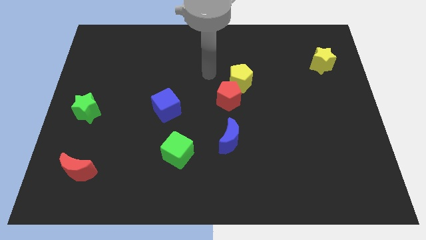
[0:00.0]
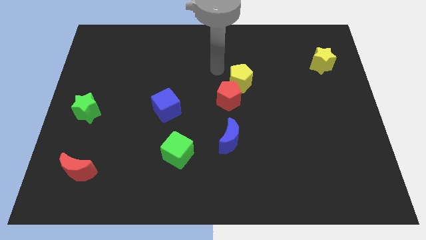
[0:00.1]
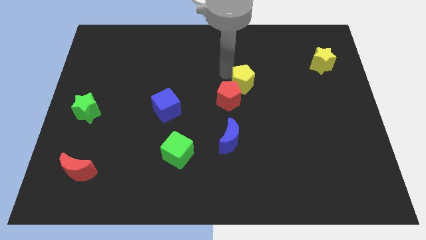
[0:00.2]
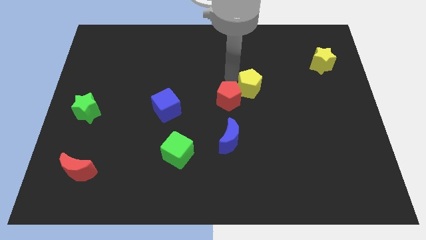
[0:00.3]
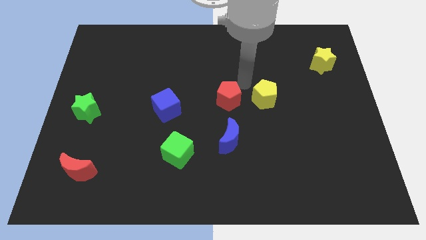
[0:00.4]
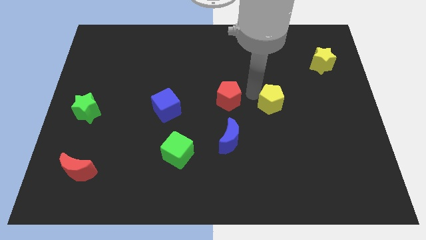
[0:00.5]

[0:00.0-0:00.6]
separate the red pentagon from the yellow pentagon

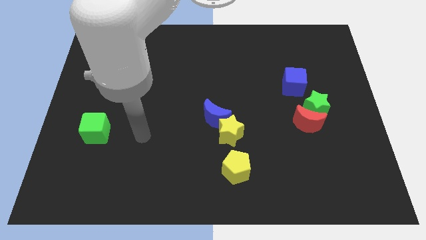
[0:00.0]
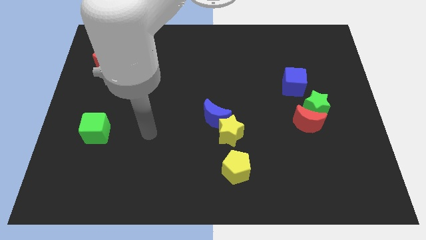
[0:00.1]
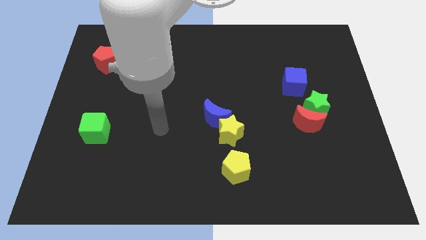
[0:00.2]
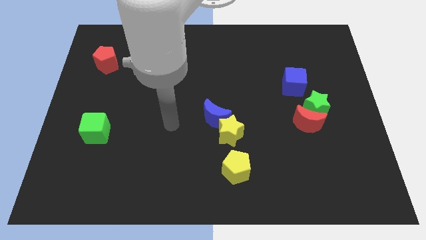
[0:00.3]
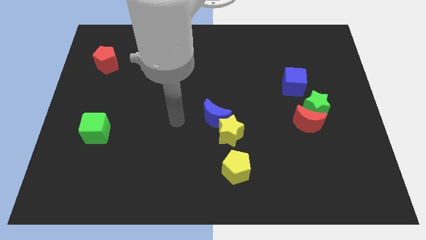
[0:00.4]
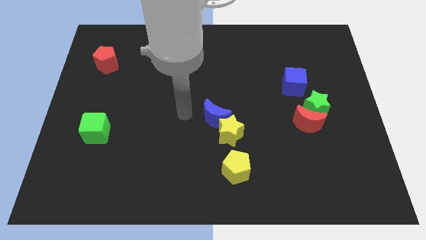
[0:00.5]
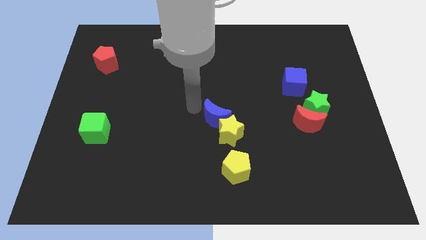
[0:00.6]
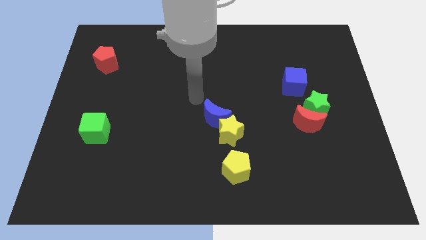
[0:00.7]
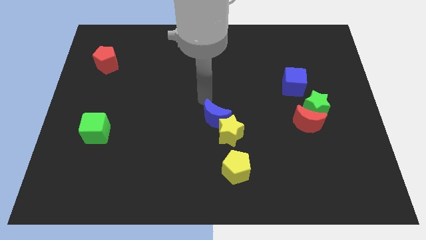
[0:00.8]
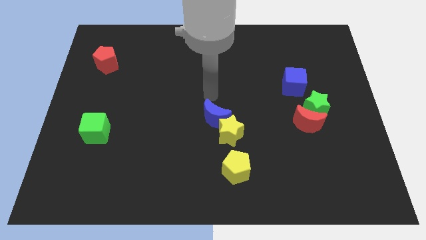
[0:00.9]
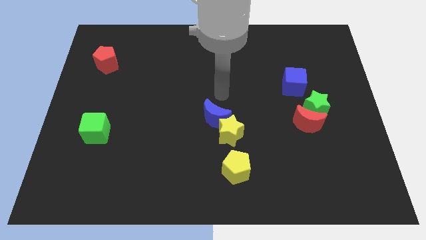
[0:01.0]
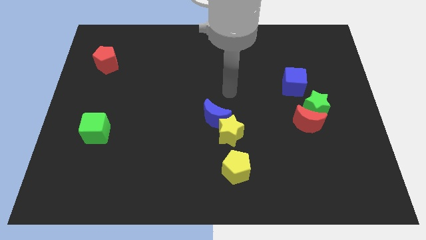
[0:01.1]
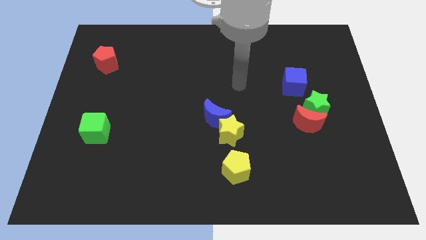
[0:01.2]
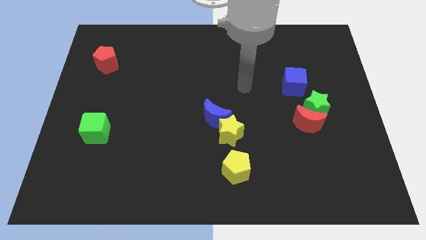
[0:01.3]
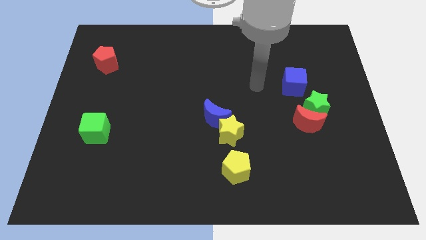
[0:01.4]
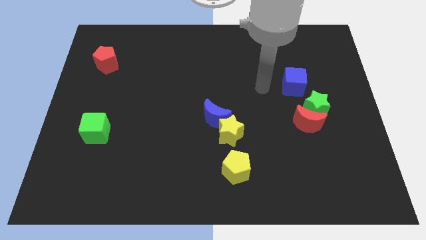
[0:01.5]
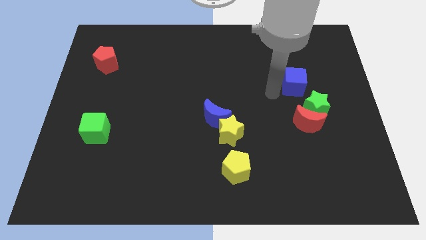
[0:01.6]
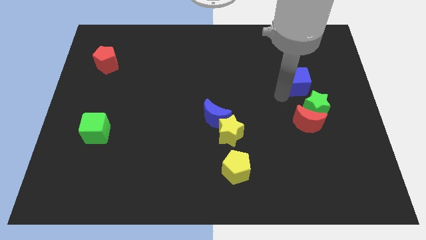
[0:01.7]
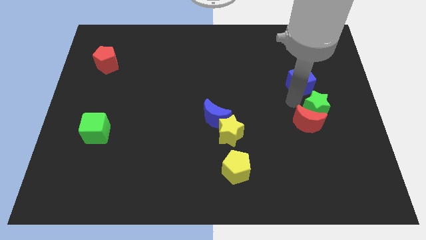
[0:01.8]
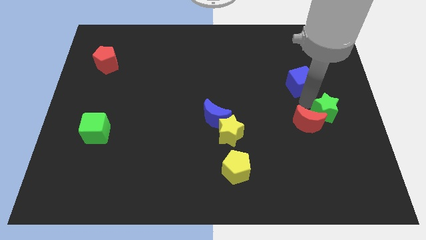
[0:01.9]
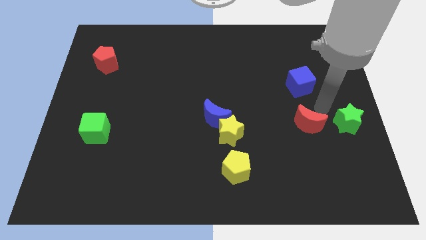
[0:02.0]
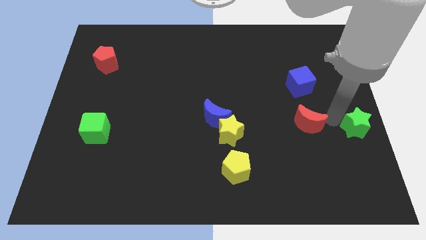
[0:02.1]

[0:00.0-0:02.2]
separate the red moon from the green star

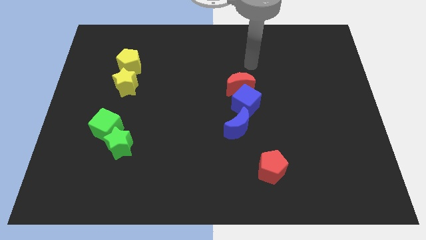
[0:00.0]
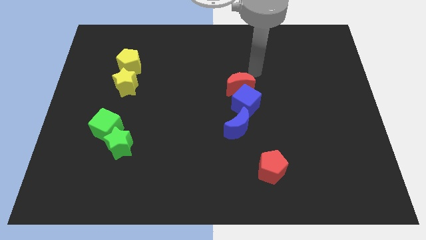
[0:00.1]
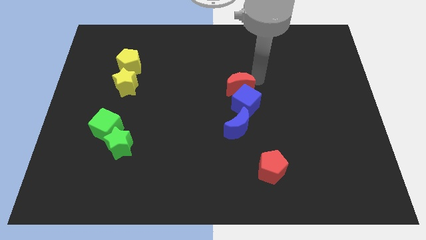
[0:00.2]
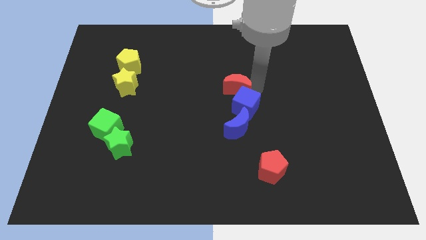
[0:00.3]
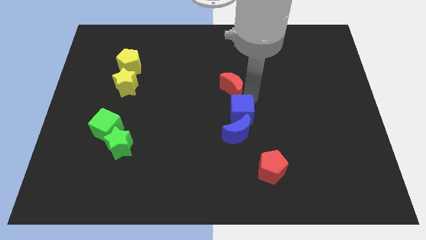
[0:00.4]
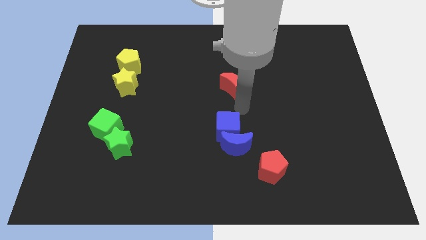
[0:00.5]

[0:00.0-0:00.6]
move the red moon away from the blue cube

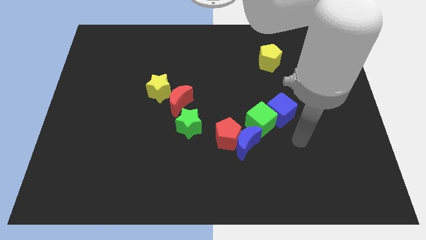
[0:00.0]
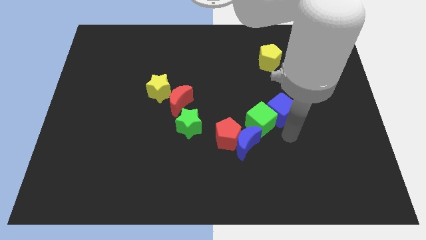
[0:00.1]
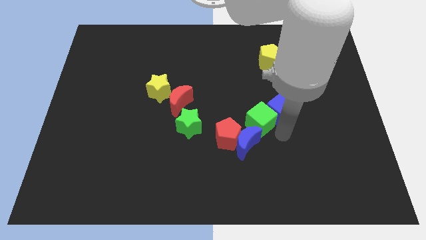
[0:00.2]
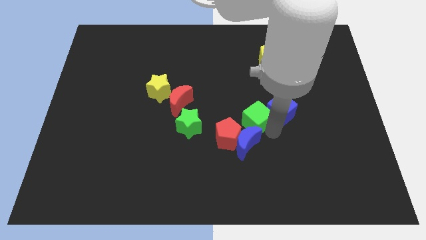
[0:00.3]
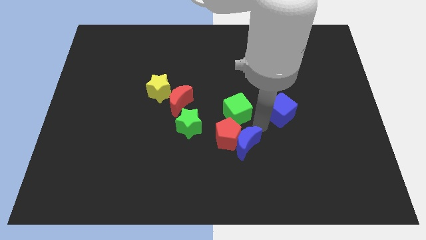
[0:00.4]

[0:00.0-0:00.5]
separate the blue cube from the green cube

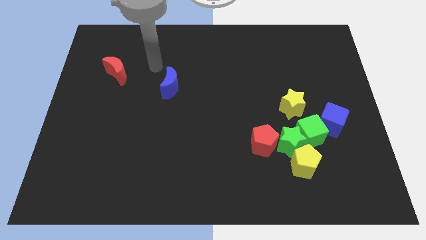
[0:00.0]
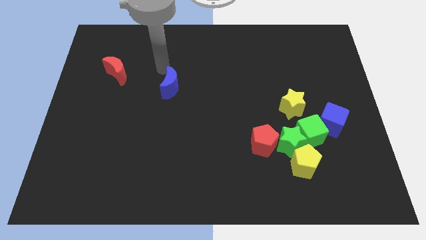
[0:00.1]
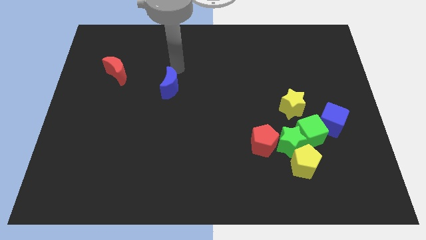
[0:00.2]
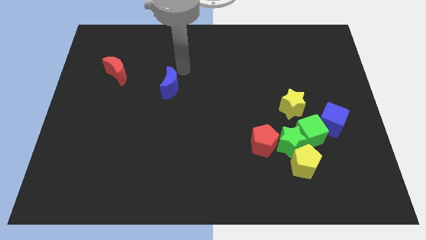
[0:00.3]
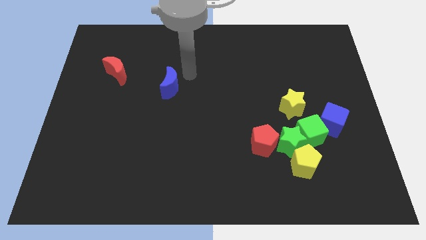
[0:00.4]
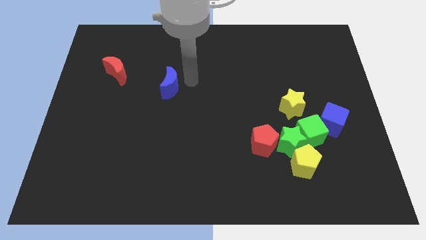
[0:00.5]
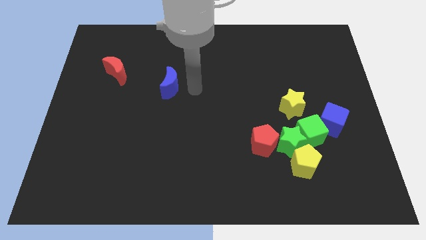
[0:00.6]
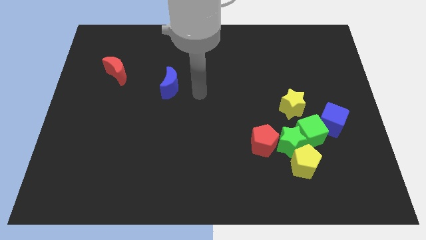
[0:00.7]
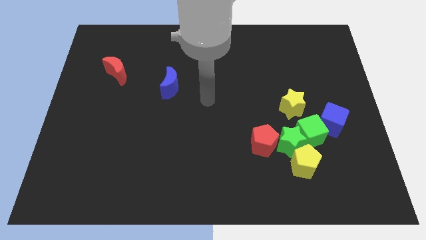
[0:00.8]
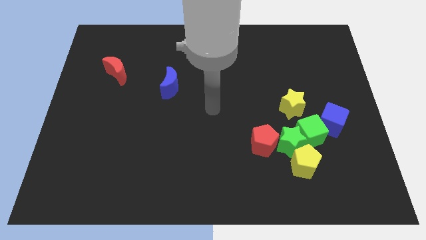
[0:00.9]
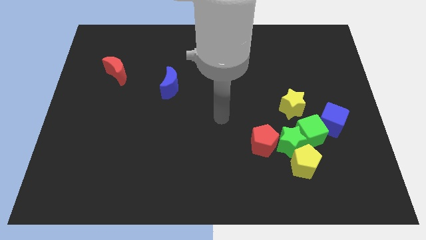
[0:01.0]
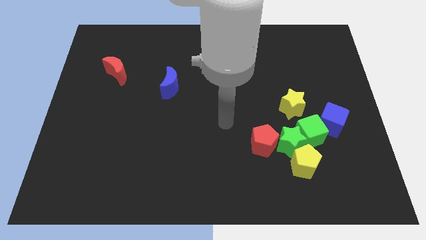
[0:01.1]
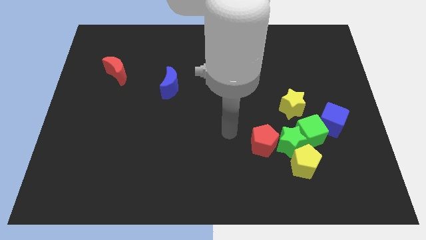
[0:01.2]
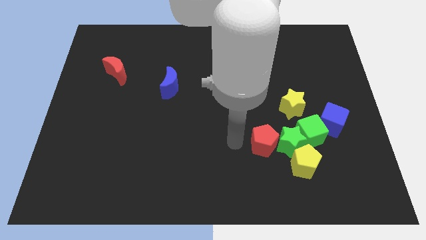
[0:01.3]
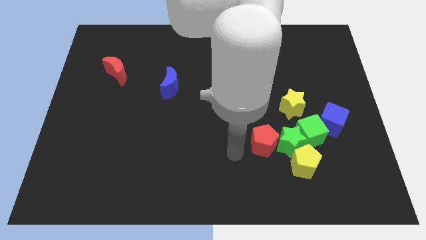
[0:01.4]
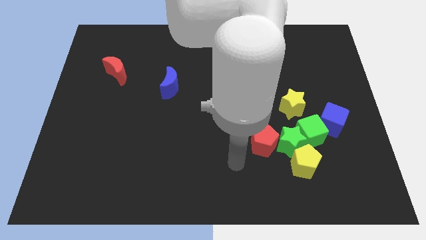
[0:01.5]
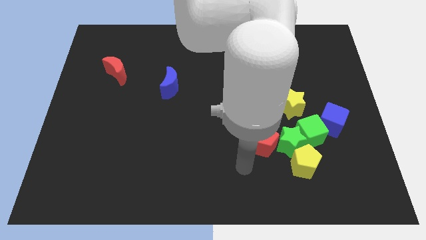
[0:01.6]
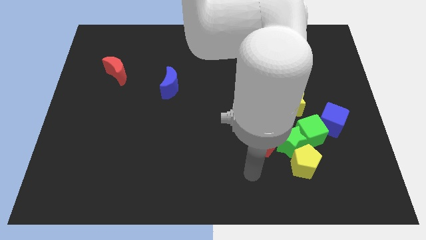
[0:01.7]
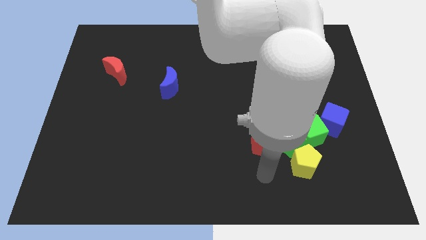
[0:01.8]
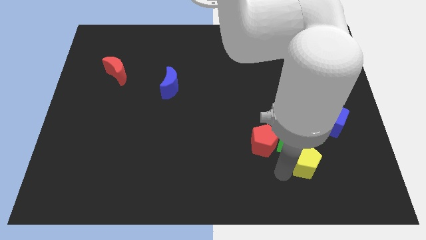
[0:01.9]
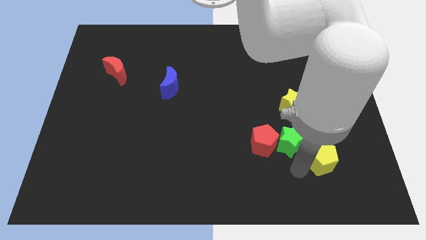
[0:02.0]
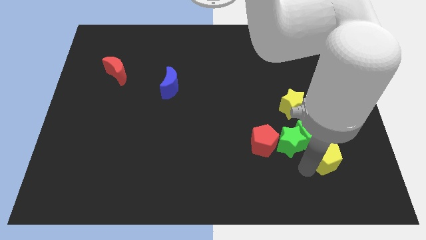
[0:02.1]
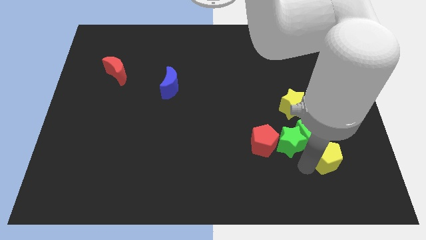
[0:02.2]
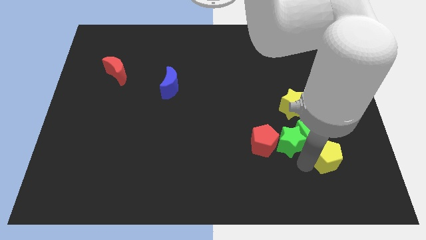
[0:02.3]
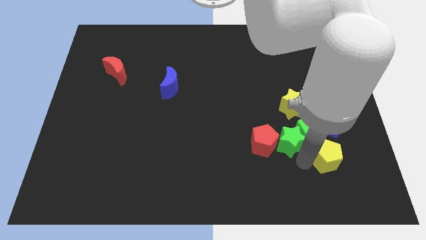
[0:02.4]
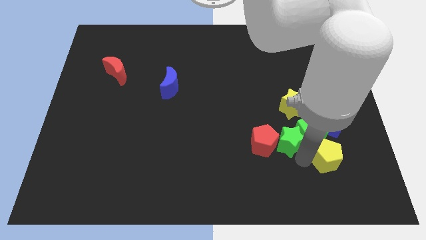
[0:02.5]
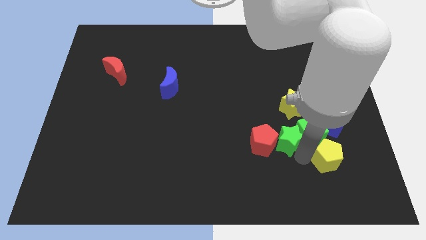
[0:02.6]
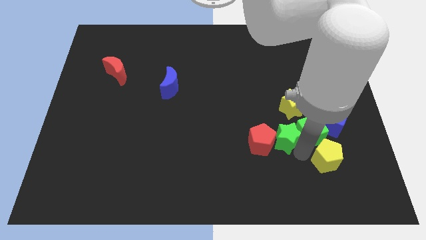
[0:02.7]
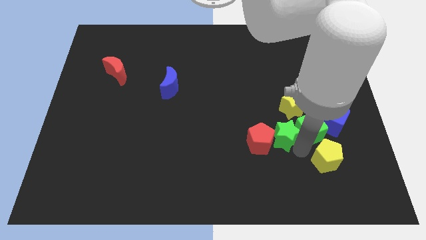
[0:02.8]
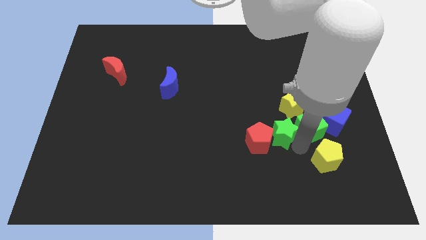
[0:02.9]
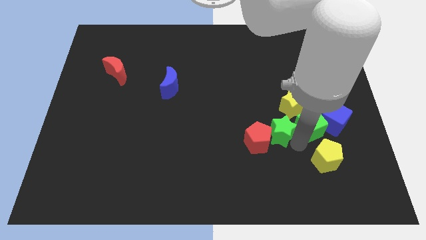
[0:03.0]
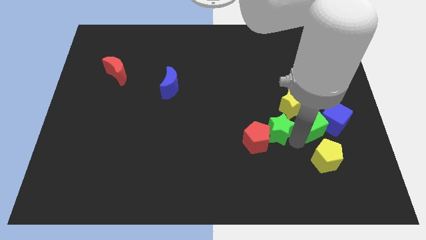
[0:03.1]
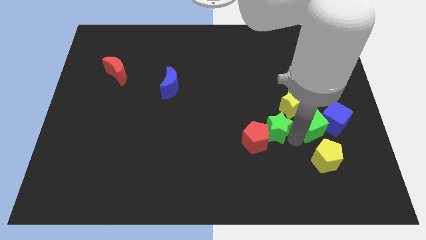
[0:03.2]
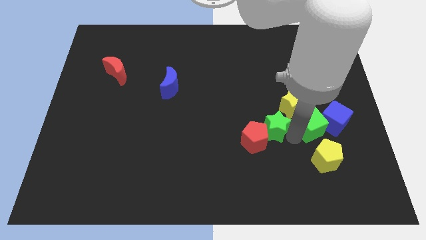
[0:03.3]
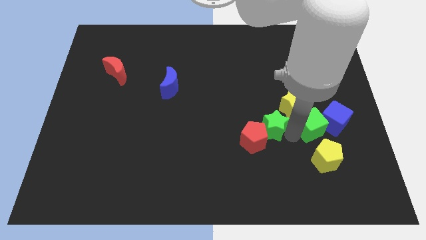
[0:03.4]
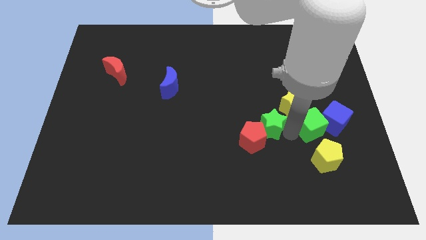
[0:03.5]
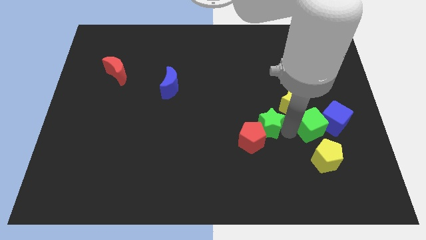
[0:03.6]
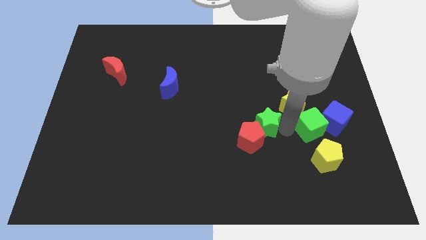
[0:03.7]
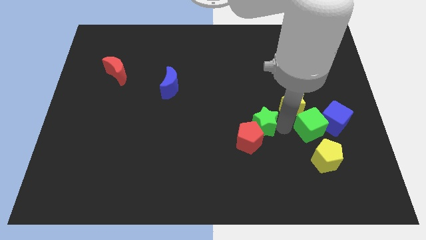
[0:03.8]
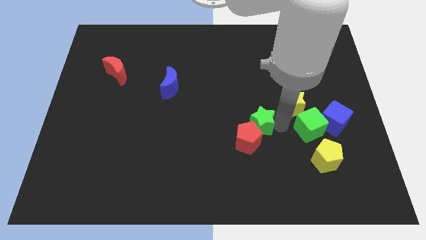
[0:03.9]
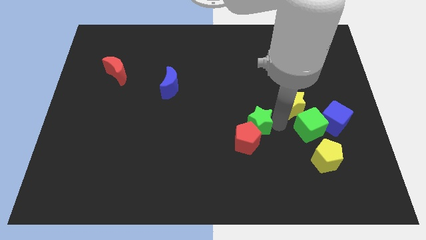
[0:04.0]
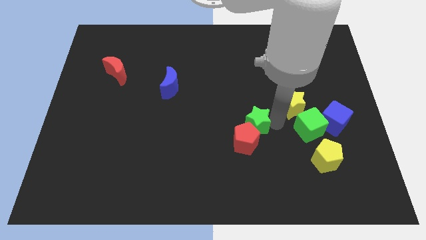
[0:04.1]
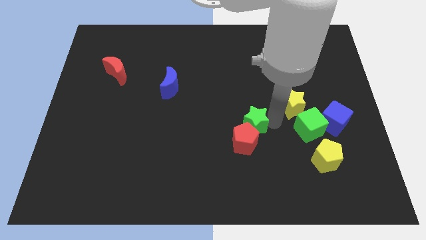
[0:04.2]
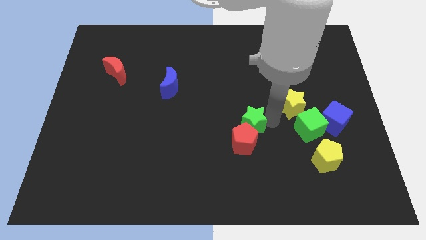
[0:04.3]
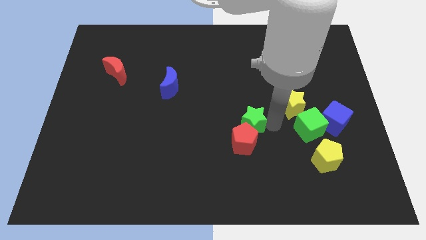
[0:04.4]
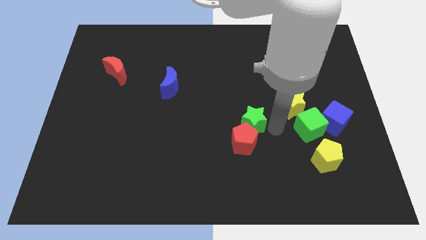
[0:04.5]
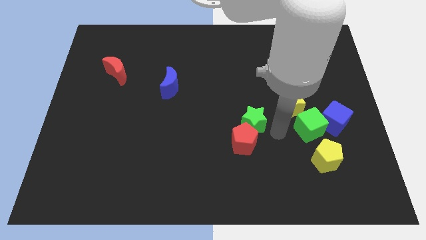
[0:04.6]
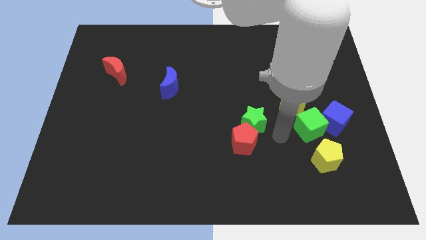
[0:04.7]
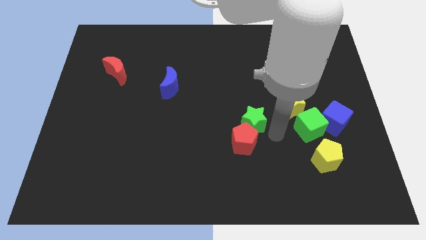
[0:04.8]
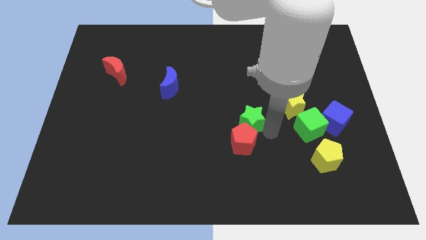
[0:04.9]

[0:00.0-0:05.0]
separate the green star from the group

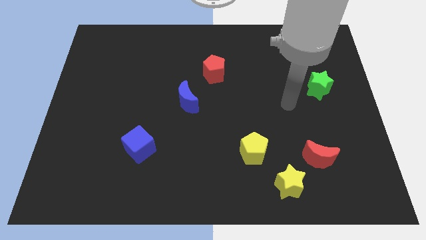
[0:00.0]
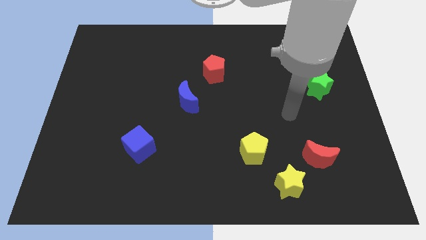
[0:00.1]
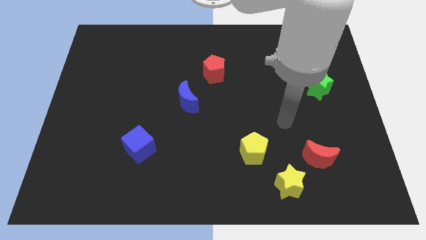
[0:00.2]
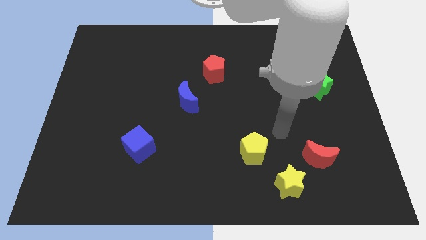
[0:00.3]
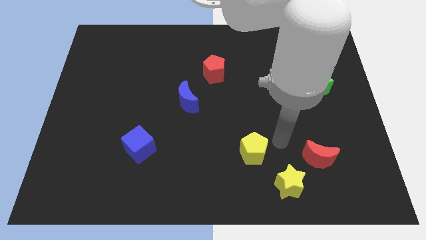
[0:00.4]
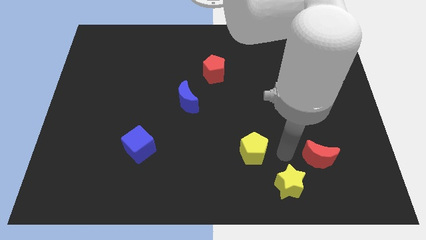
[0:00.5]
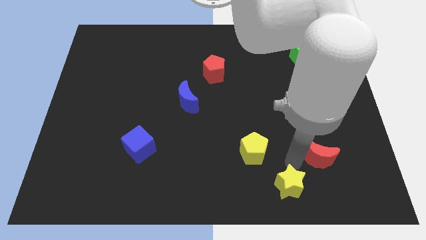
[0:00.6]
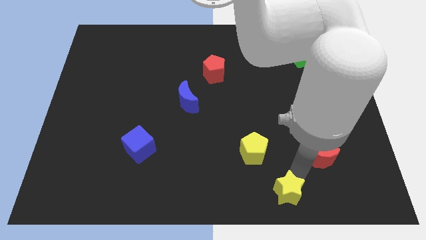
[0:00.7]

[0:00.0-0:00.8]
separate the red moon from the yellow star
